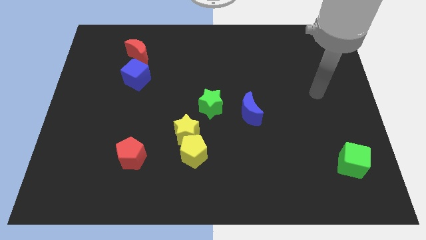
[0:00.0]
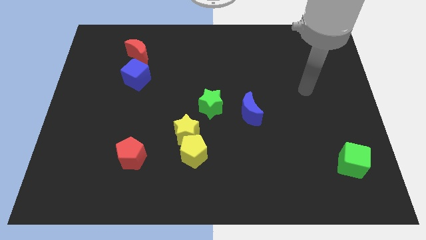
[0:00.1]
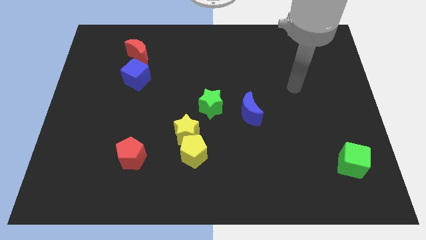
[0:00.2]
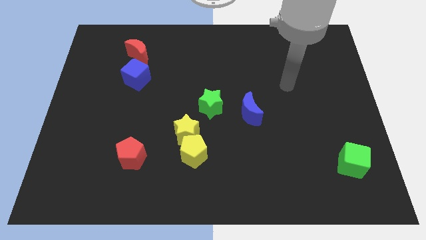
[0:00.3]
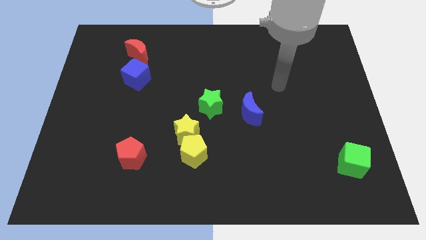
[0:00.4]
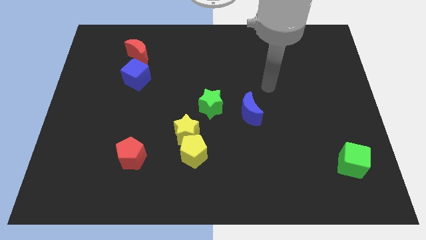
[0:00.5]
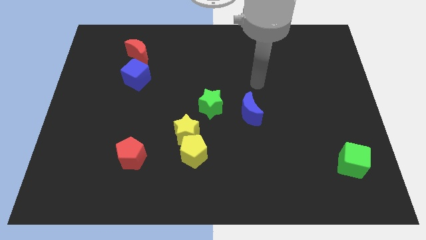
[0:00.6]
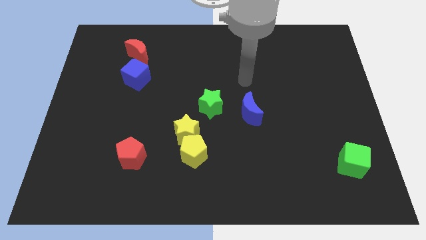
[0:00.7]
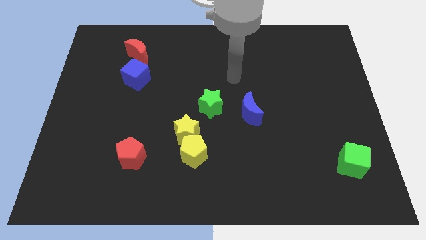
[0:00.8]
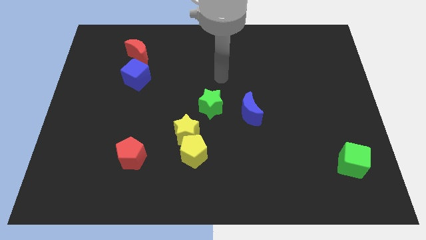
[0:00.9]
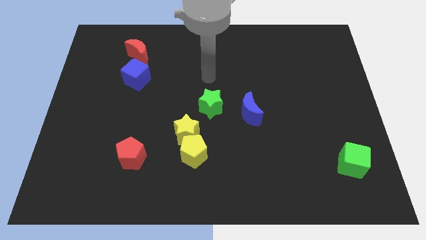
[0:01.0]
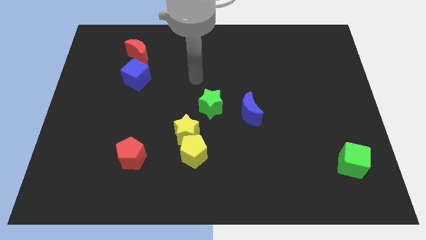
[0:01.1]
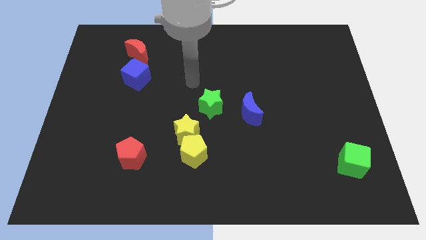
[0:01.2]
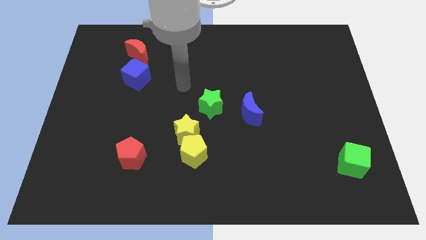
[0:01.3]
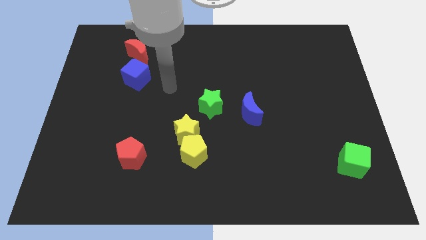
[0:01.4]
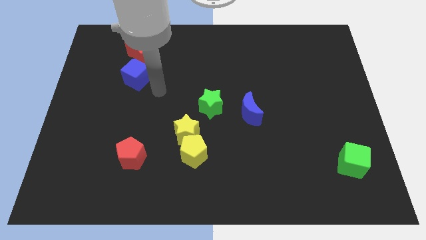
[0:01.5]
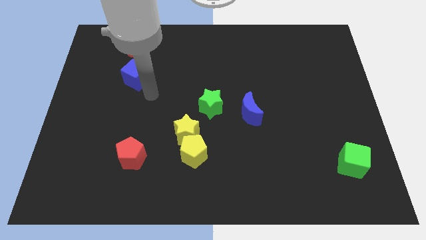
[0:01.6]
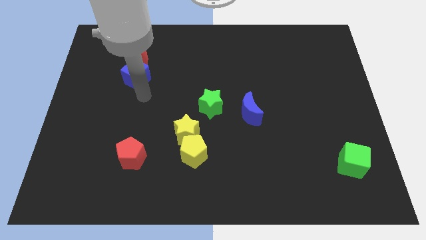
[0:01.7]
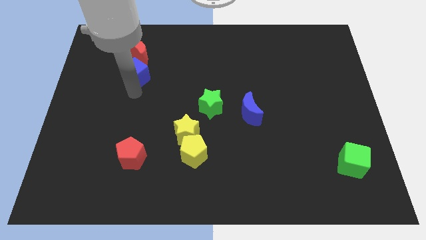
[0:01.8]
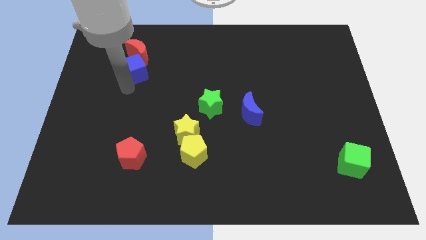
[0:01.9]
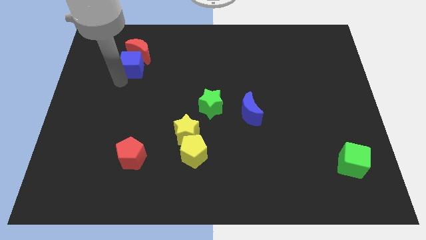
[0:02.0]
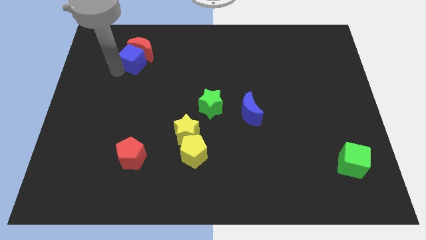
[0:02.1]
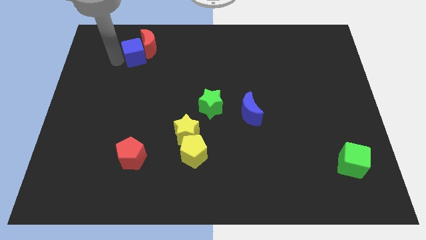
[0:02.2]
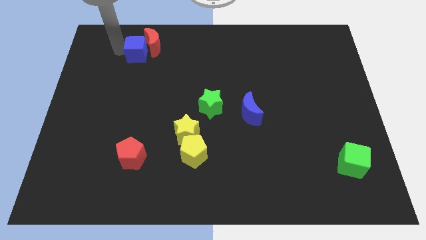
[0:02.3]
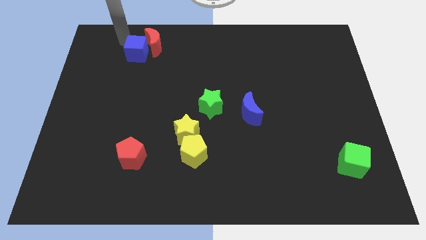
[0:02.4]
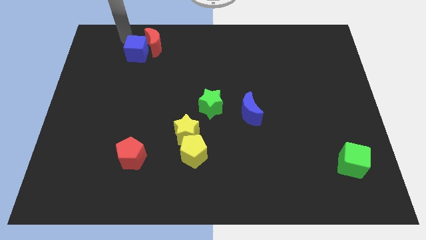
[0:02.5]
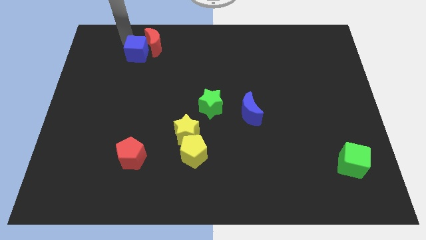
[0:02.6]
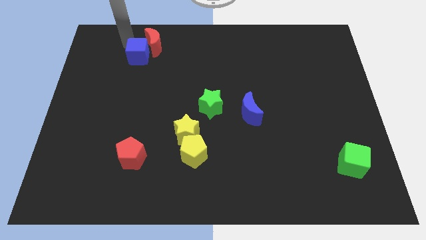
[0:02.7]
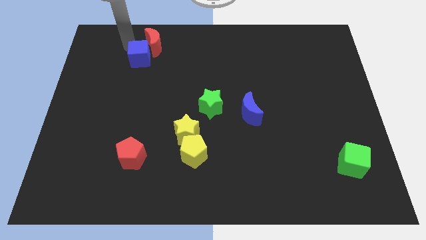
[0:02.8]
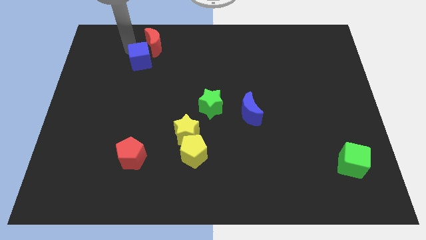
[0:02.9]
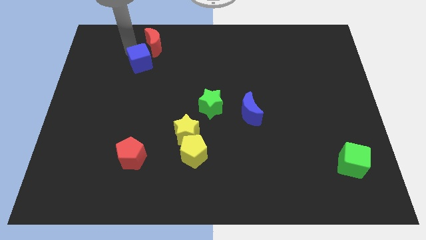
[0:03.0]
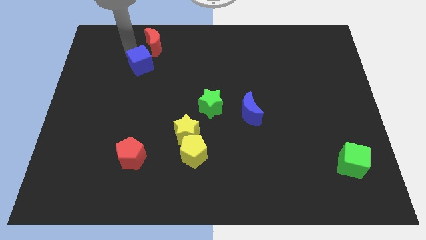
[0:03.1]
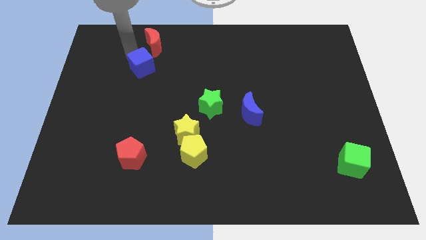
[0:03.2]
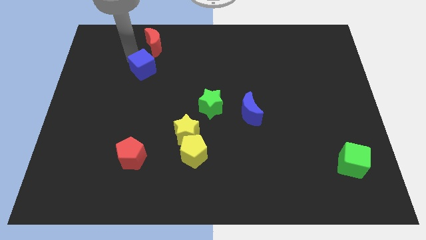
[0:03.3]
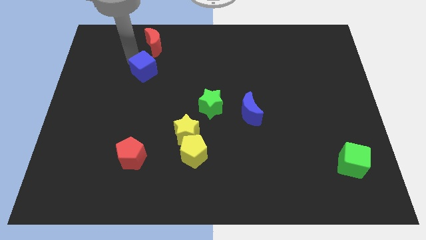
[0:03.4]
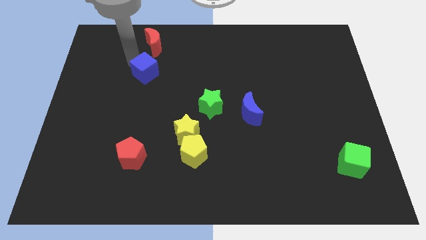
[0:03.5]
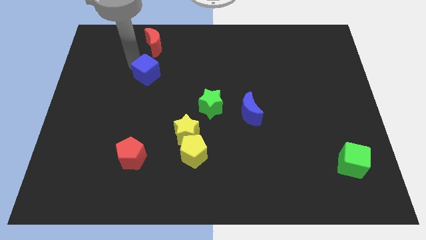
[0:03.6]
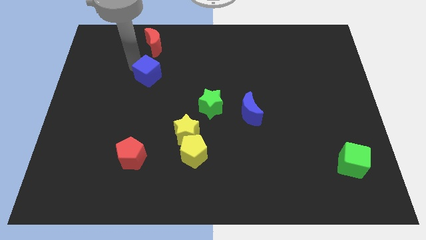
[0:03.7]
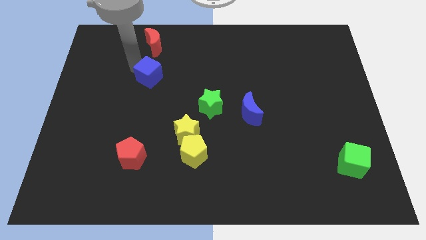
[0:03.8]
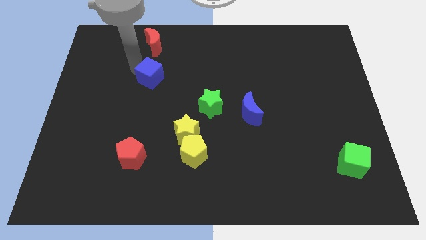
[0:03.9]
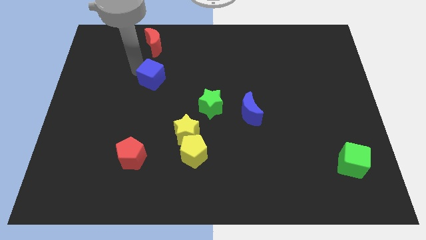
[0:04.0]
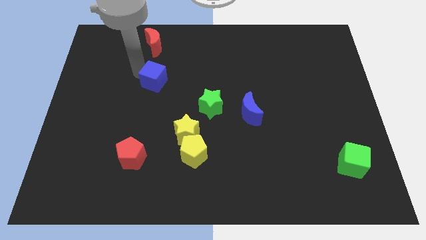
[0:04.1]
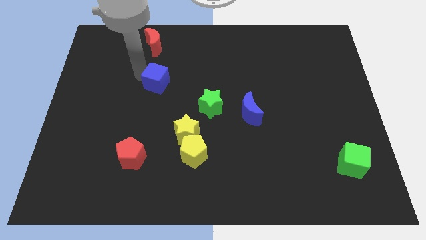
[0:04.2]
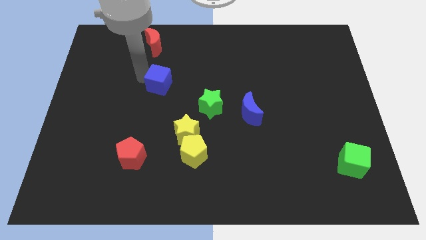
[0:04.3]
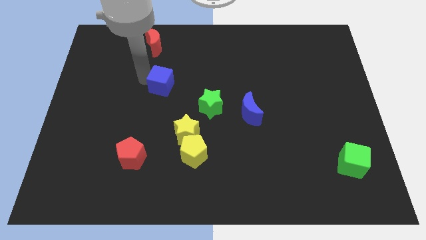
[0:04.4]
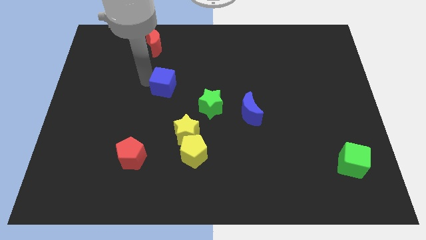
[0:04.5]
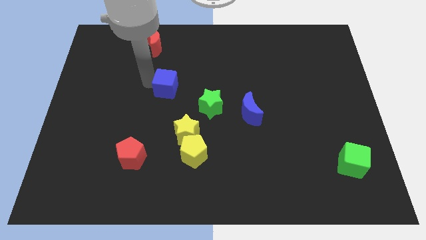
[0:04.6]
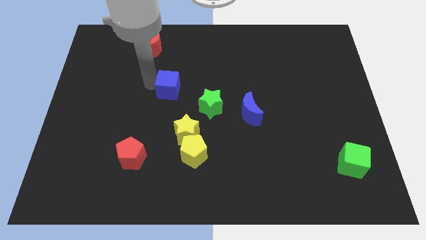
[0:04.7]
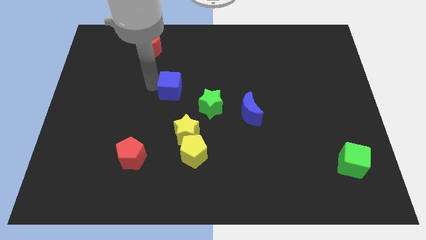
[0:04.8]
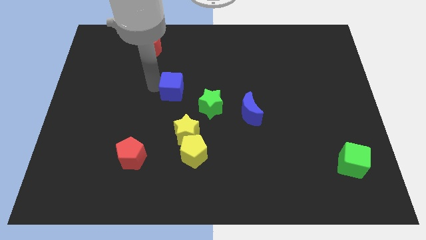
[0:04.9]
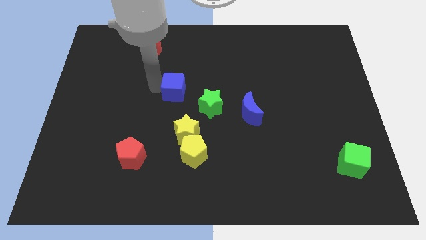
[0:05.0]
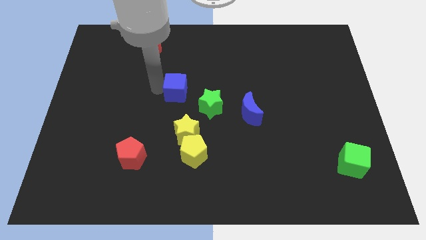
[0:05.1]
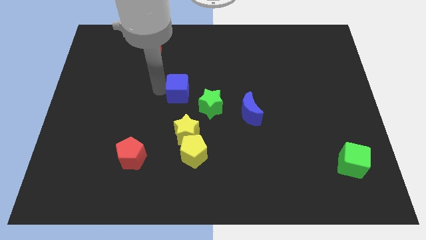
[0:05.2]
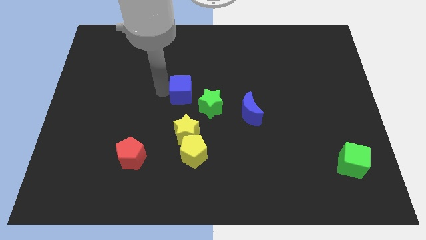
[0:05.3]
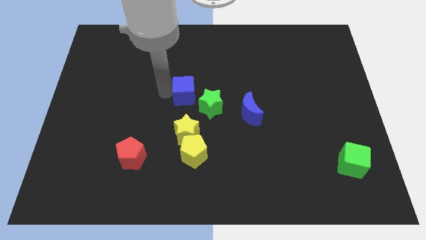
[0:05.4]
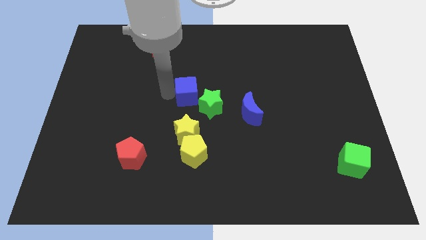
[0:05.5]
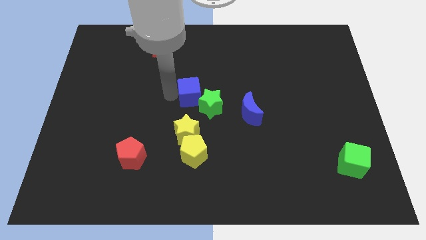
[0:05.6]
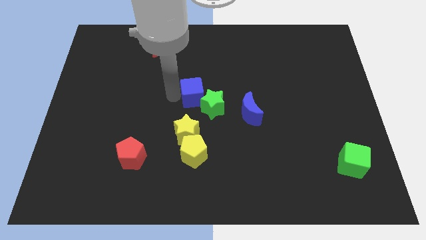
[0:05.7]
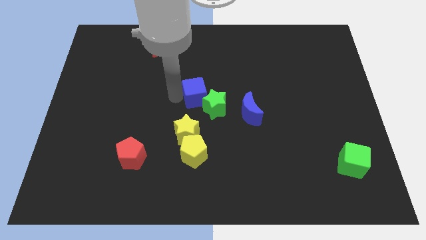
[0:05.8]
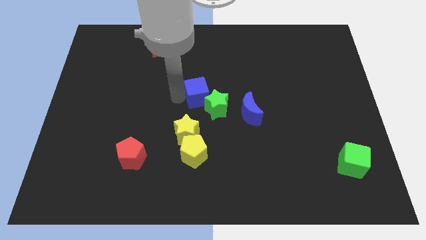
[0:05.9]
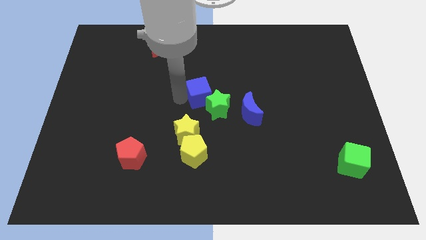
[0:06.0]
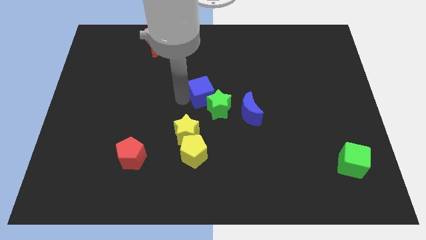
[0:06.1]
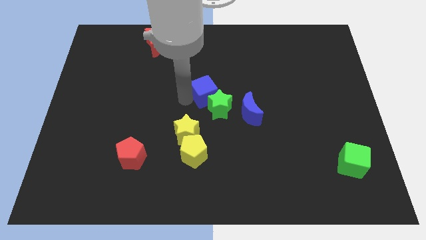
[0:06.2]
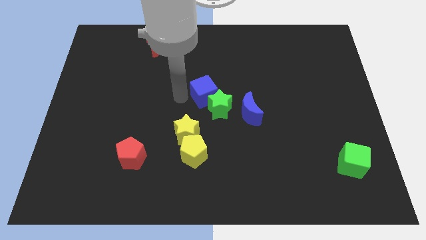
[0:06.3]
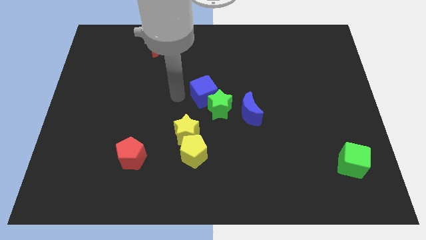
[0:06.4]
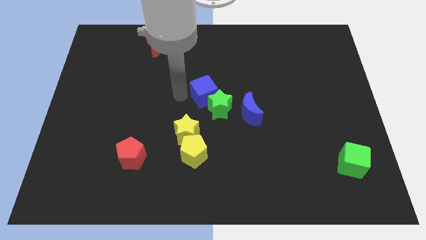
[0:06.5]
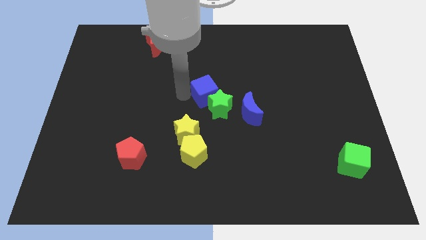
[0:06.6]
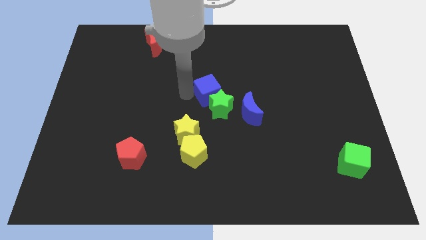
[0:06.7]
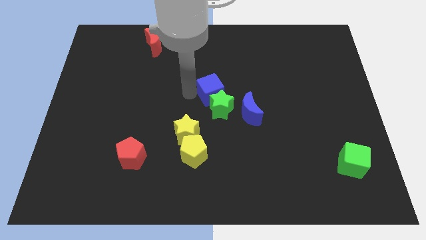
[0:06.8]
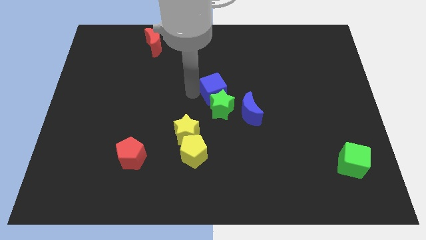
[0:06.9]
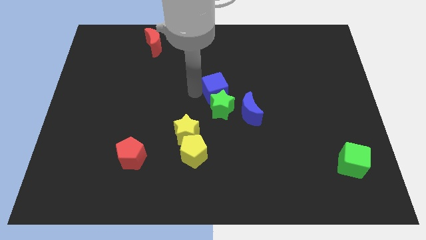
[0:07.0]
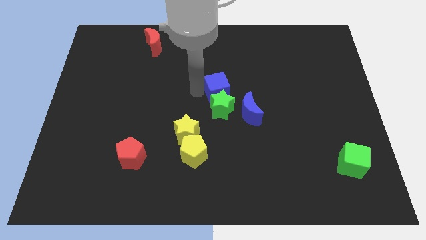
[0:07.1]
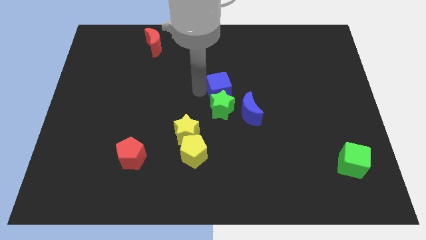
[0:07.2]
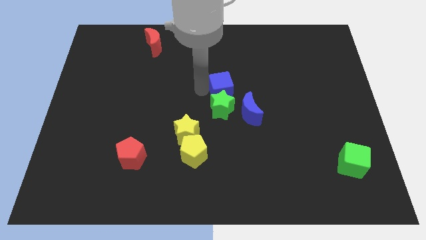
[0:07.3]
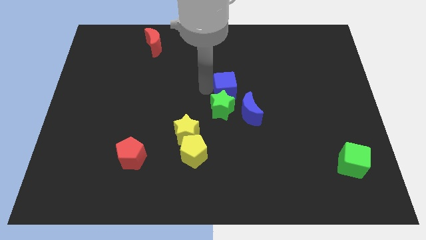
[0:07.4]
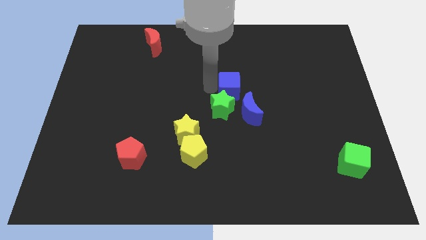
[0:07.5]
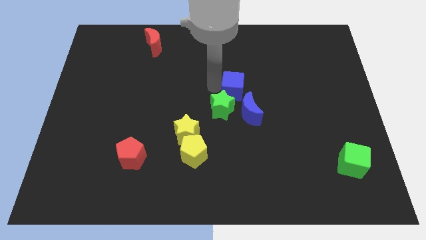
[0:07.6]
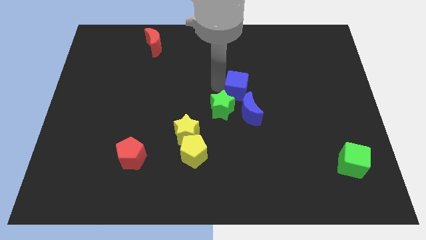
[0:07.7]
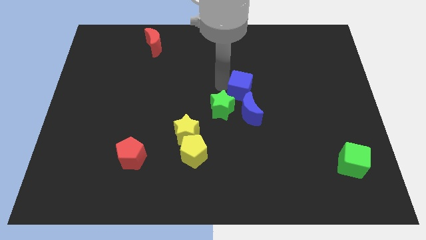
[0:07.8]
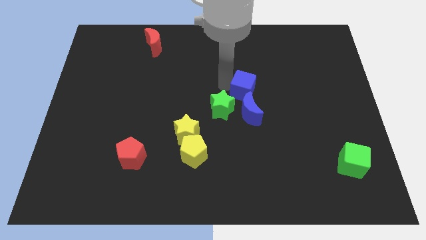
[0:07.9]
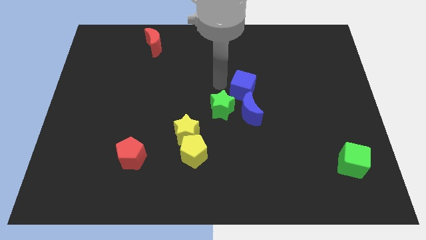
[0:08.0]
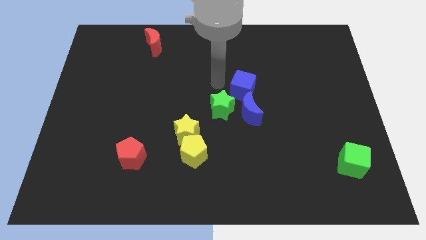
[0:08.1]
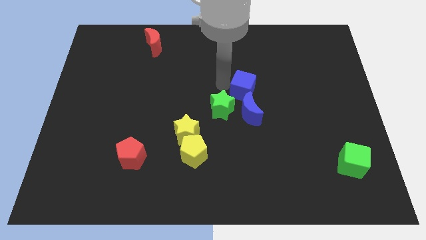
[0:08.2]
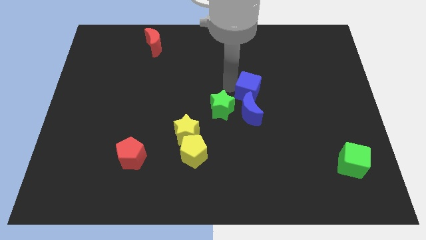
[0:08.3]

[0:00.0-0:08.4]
push the blue cube to the top right of the blue moon
